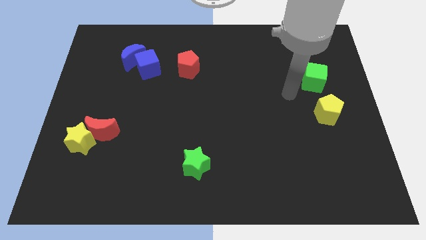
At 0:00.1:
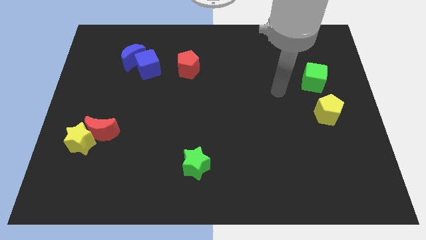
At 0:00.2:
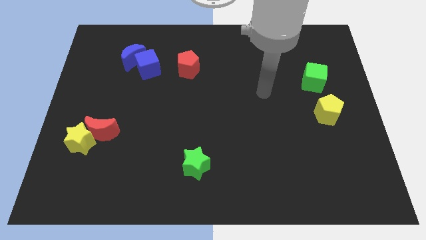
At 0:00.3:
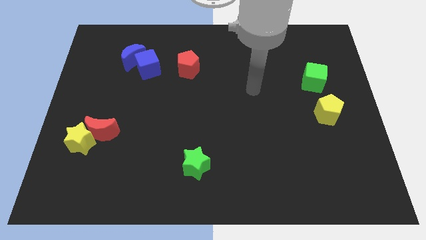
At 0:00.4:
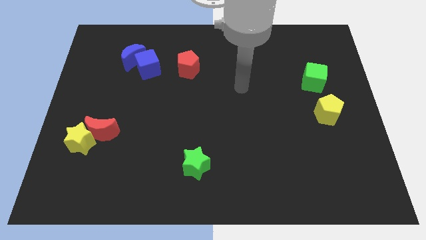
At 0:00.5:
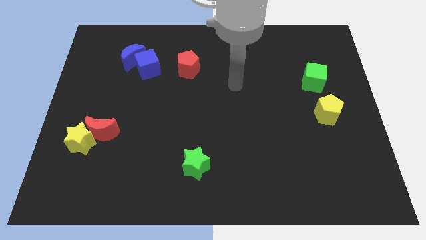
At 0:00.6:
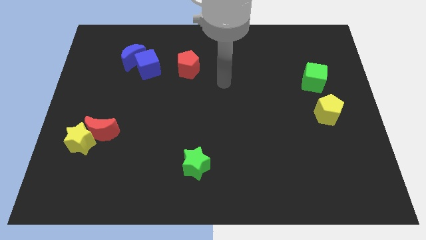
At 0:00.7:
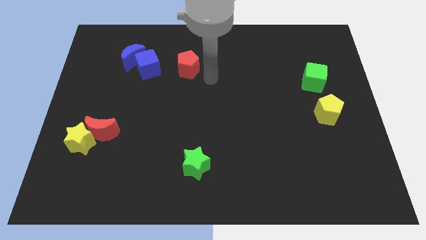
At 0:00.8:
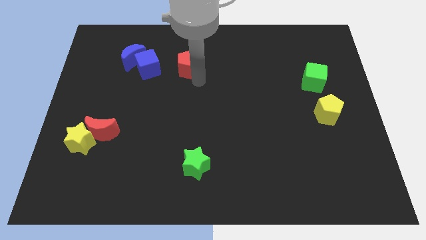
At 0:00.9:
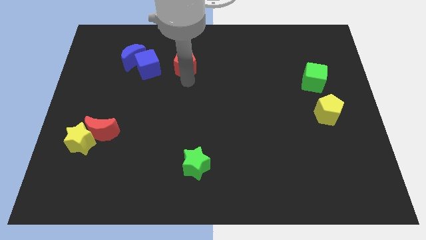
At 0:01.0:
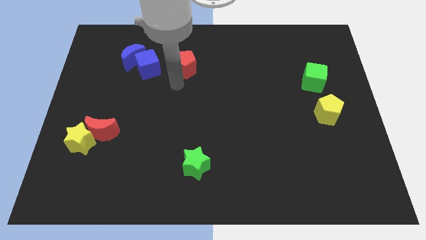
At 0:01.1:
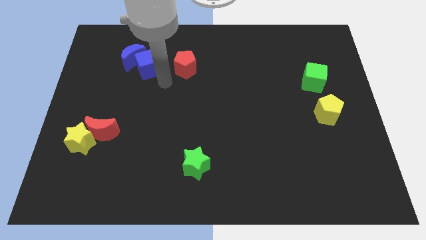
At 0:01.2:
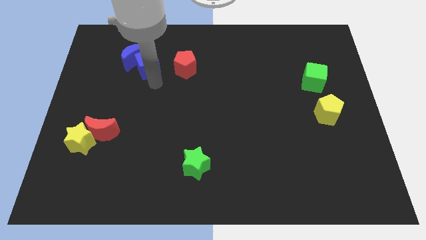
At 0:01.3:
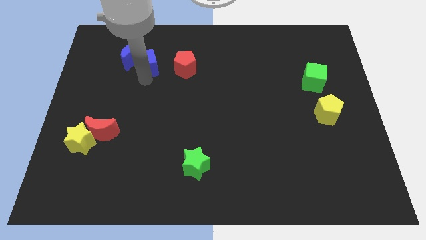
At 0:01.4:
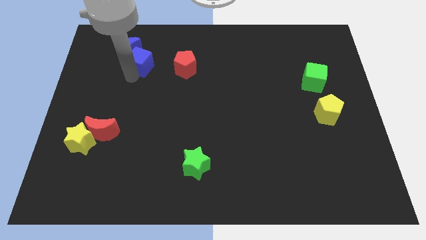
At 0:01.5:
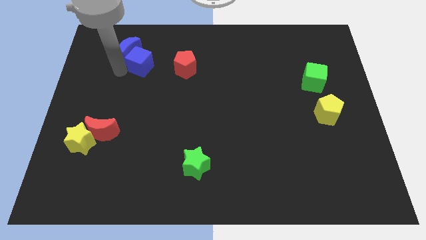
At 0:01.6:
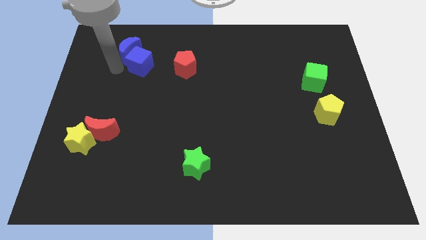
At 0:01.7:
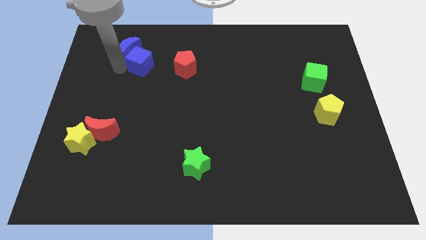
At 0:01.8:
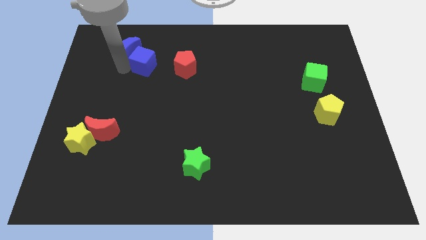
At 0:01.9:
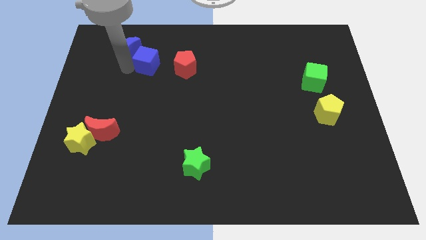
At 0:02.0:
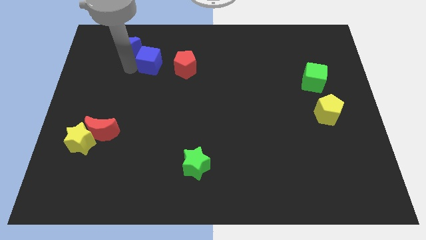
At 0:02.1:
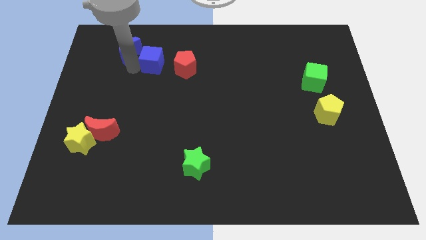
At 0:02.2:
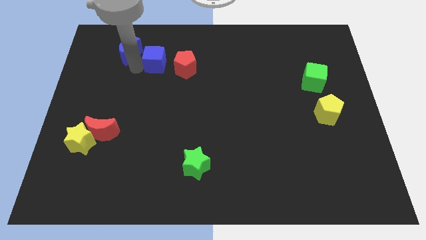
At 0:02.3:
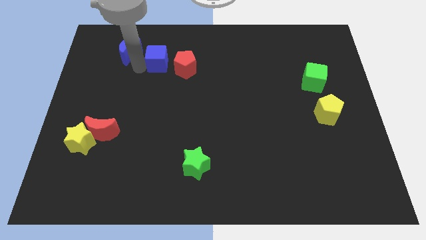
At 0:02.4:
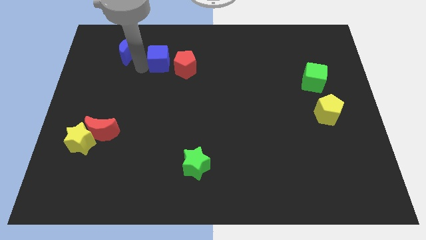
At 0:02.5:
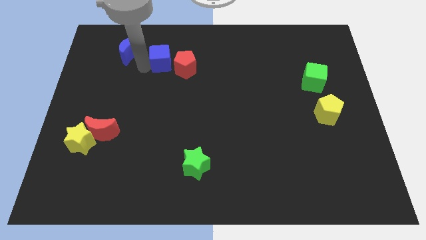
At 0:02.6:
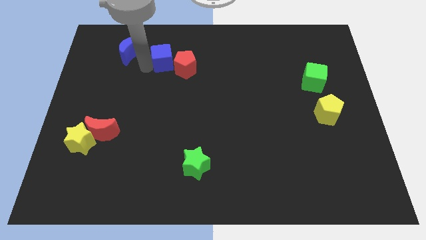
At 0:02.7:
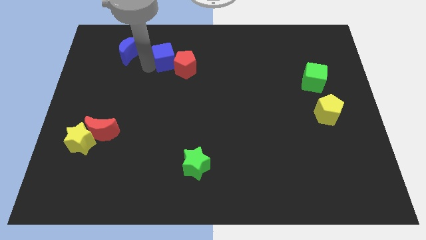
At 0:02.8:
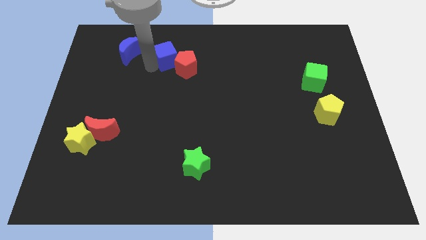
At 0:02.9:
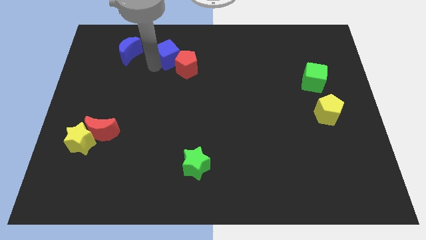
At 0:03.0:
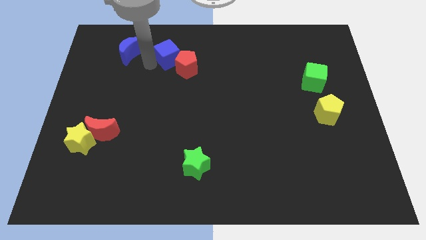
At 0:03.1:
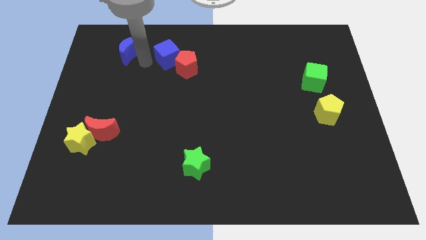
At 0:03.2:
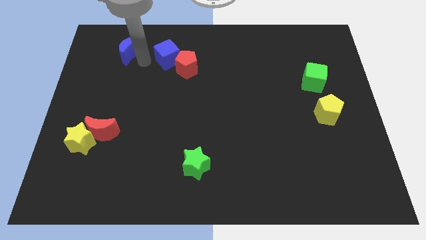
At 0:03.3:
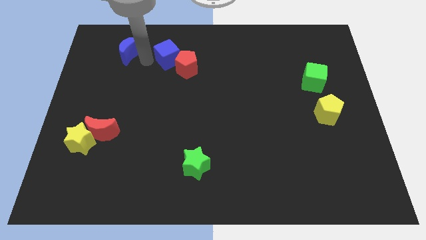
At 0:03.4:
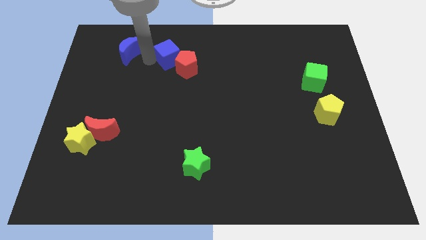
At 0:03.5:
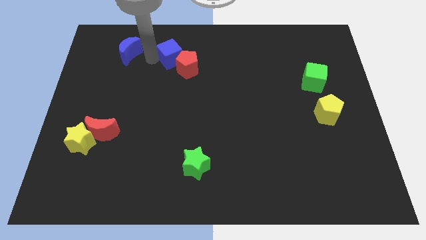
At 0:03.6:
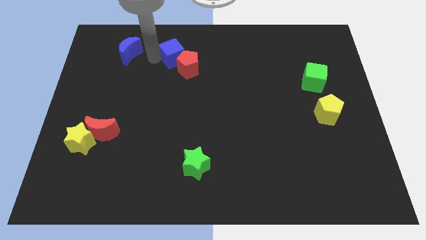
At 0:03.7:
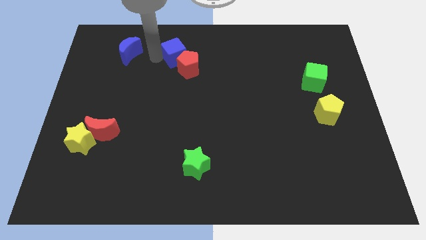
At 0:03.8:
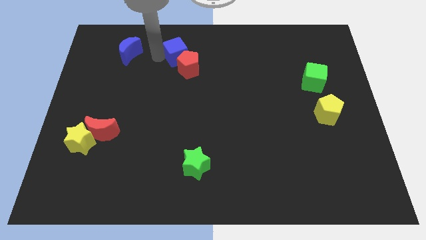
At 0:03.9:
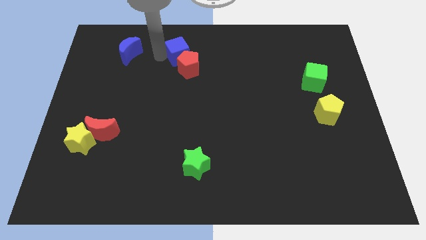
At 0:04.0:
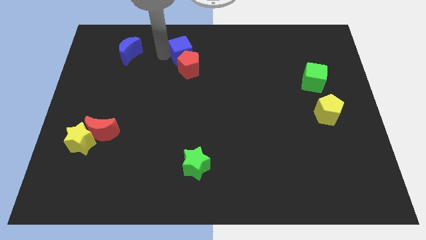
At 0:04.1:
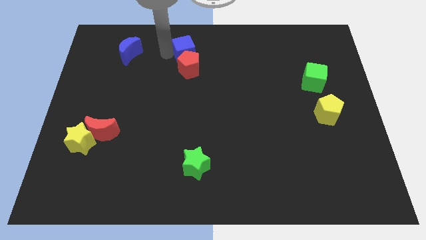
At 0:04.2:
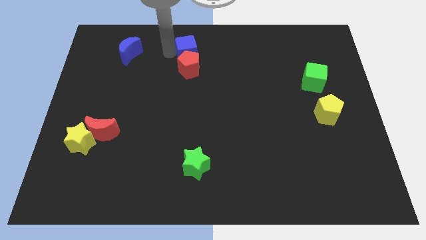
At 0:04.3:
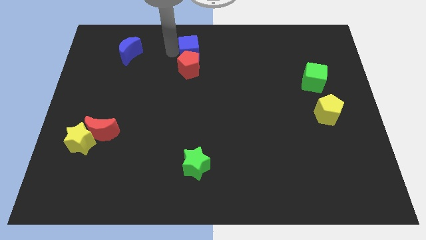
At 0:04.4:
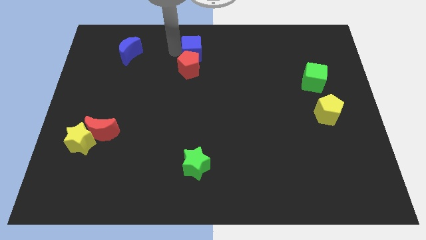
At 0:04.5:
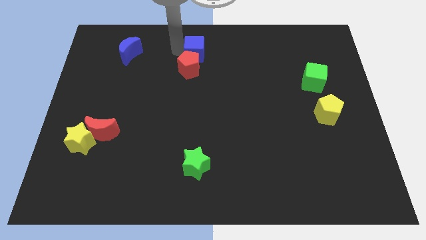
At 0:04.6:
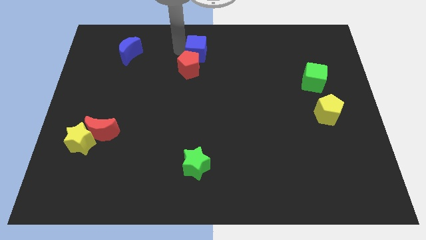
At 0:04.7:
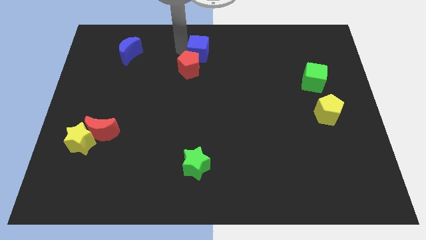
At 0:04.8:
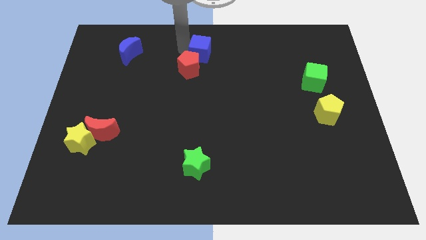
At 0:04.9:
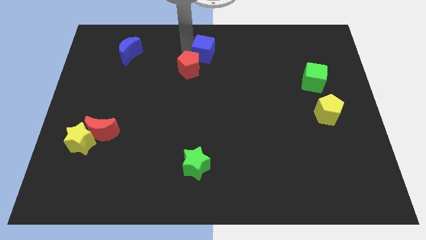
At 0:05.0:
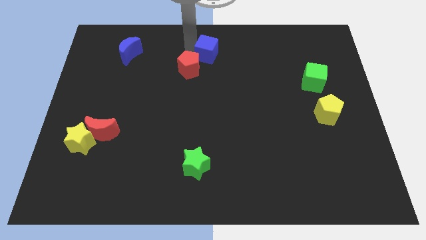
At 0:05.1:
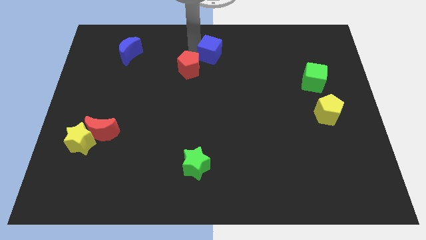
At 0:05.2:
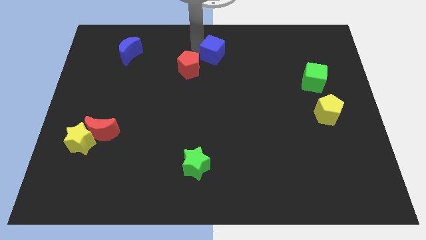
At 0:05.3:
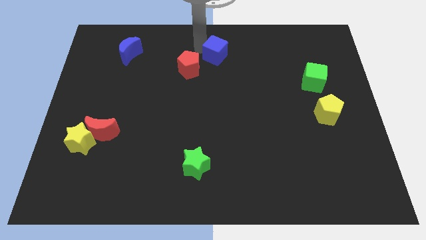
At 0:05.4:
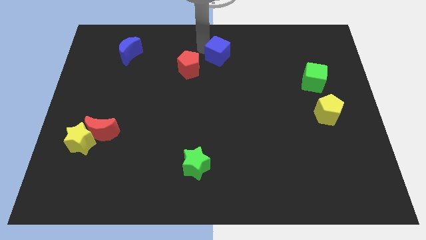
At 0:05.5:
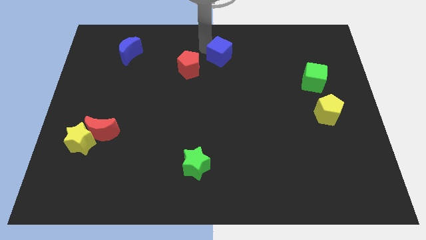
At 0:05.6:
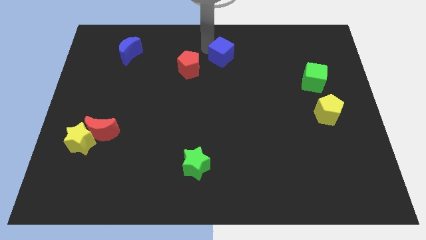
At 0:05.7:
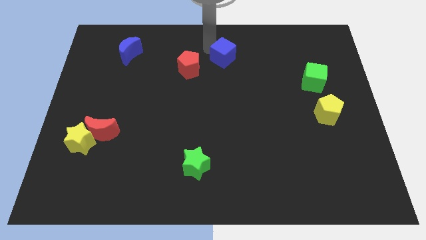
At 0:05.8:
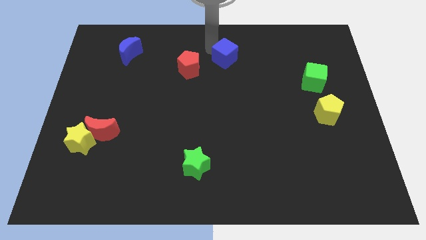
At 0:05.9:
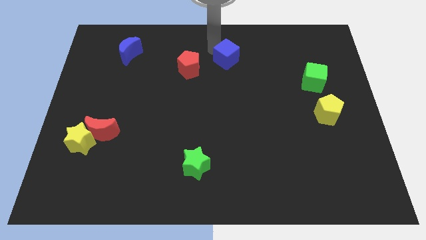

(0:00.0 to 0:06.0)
slide the blue cube to the right

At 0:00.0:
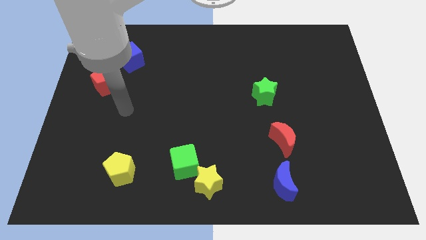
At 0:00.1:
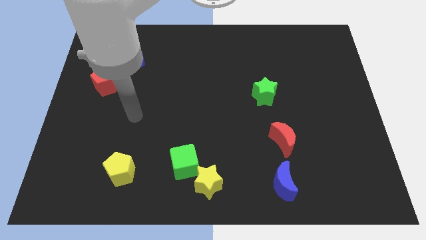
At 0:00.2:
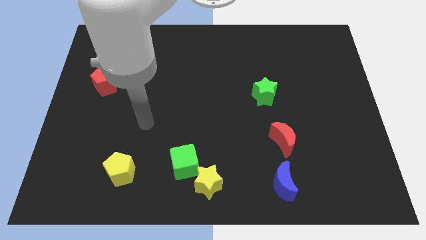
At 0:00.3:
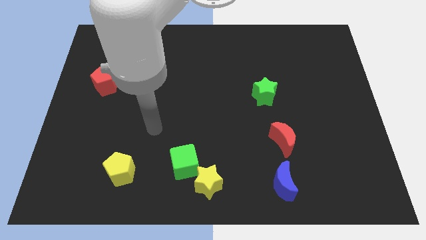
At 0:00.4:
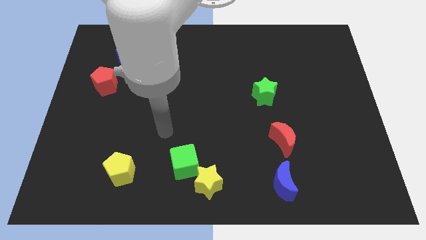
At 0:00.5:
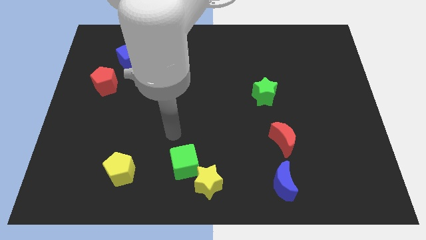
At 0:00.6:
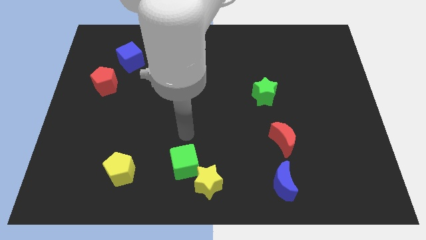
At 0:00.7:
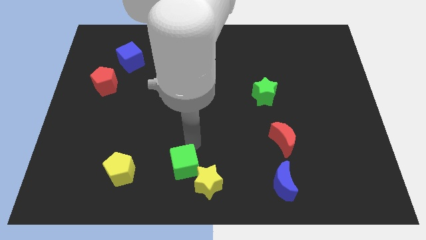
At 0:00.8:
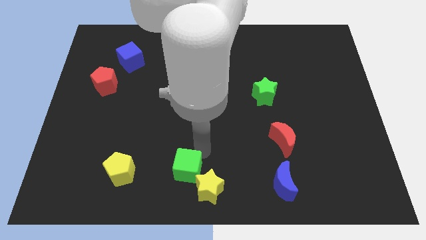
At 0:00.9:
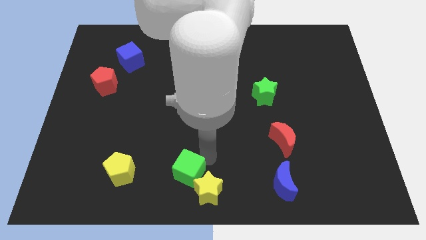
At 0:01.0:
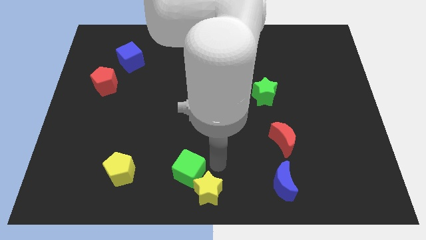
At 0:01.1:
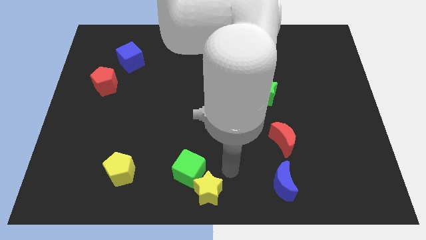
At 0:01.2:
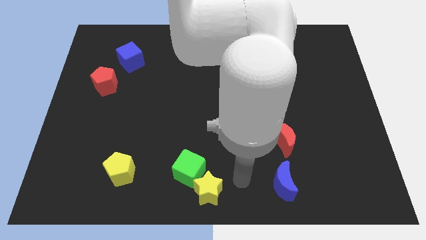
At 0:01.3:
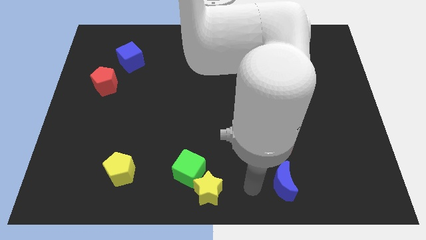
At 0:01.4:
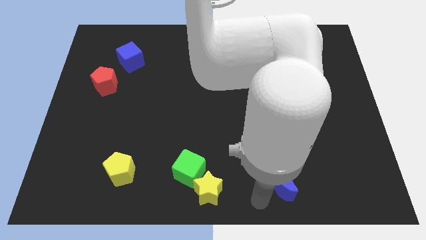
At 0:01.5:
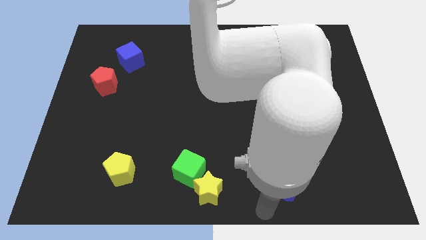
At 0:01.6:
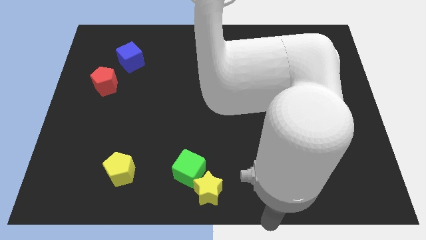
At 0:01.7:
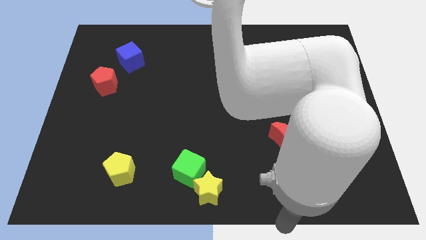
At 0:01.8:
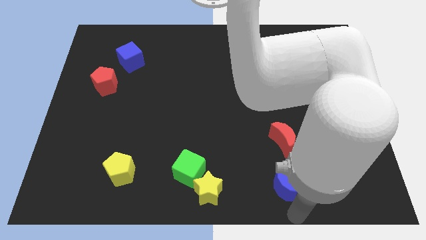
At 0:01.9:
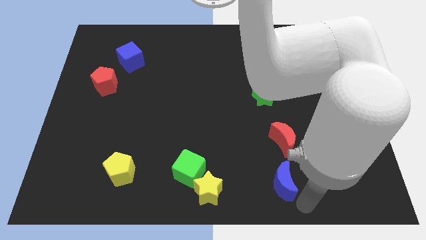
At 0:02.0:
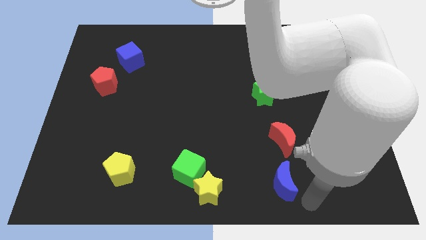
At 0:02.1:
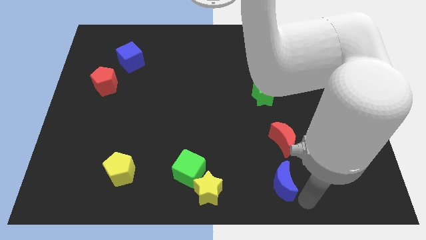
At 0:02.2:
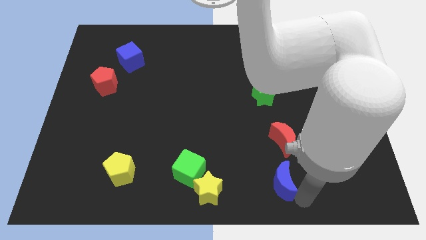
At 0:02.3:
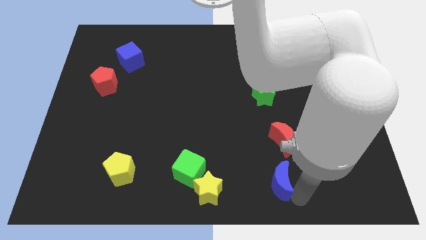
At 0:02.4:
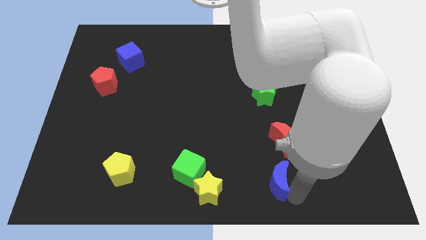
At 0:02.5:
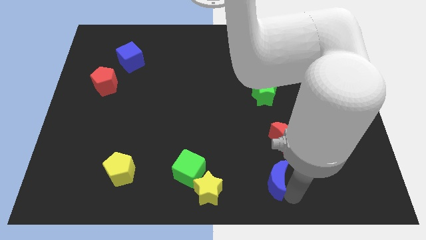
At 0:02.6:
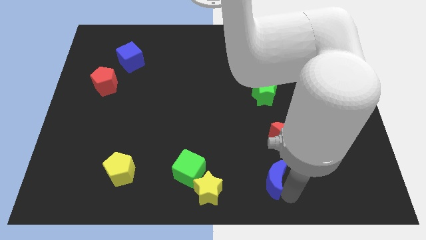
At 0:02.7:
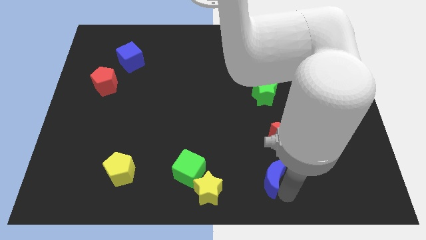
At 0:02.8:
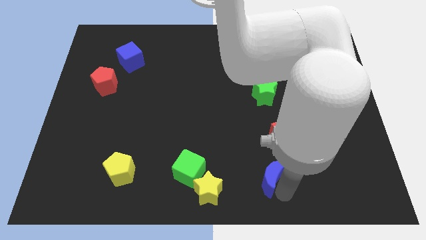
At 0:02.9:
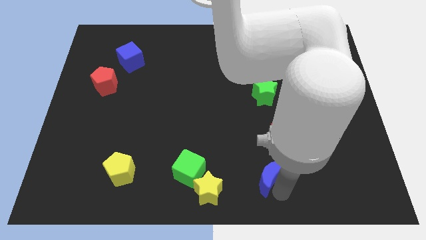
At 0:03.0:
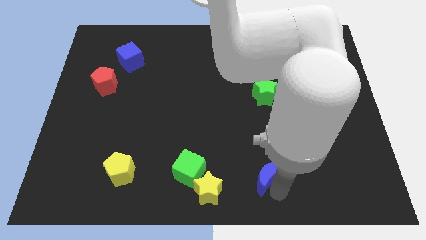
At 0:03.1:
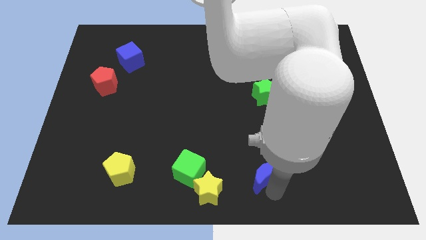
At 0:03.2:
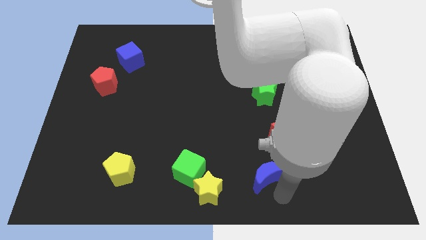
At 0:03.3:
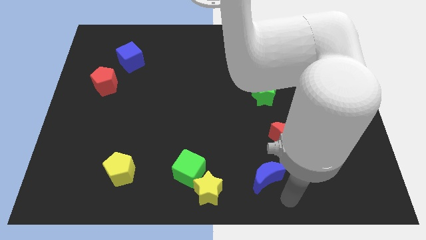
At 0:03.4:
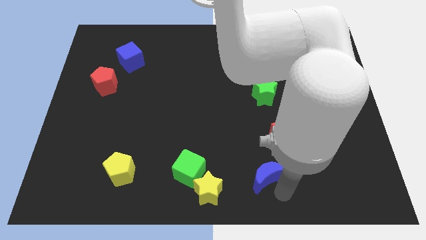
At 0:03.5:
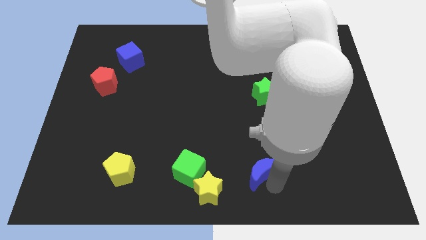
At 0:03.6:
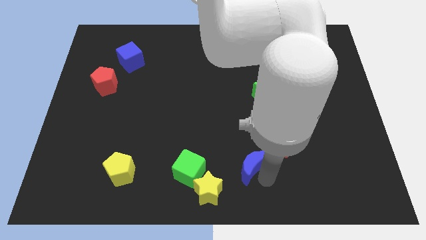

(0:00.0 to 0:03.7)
slide the blue moon a little upwards and left diagonally
